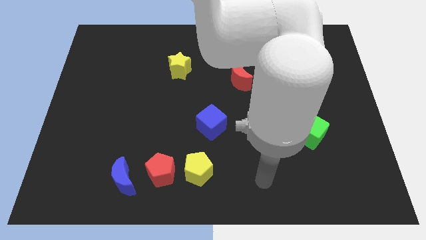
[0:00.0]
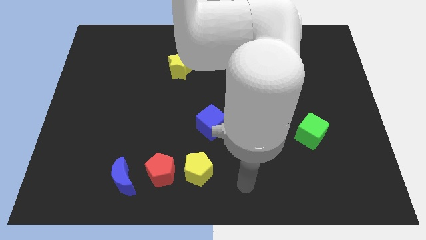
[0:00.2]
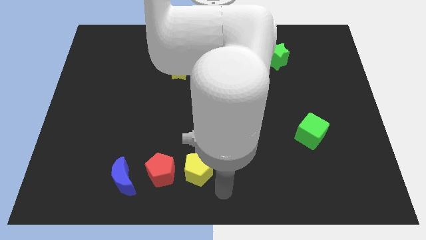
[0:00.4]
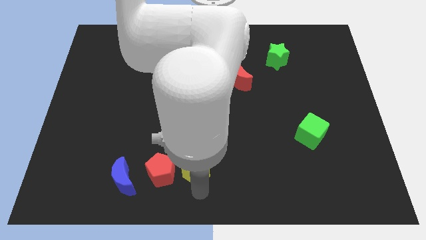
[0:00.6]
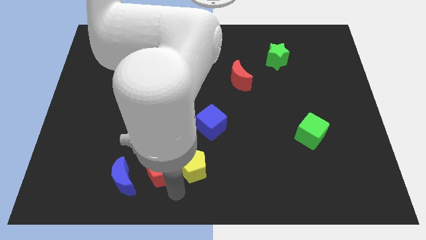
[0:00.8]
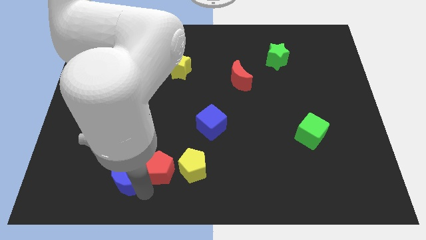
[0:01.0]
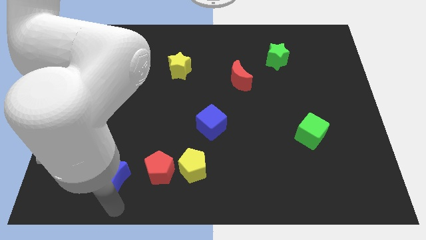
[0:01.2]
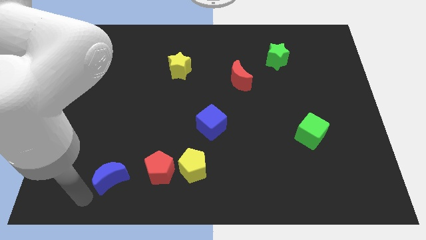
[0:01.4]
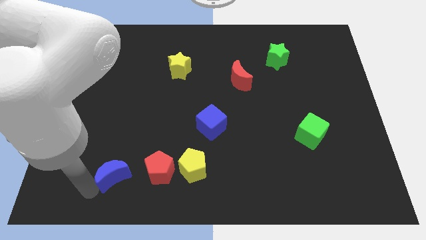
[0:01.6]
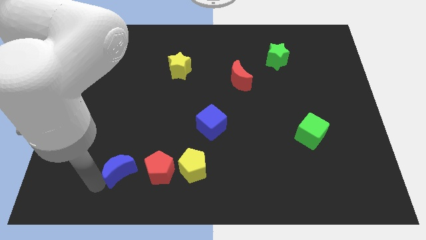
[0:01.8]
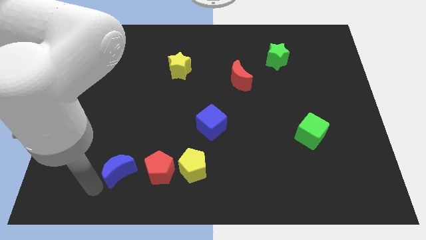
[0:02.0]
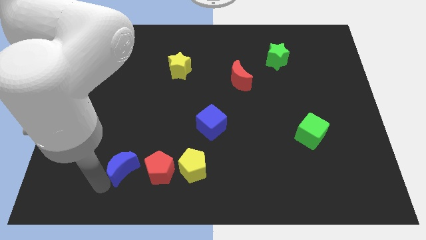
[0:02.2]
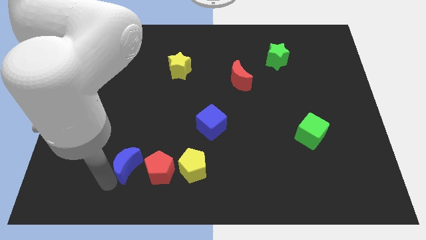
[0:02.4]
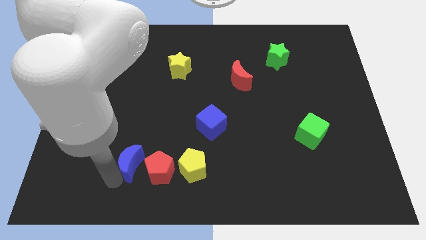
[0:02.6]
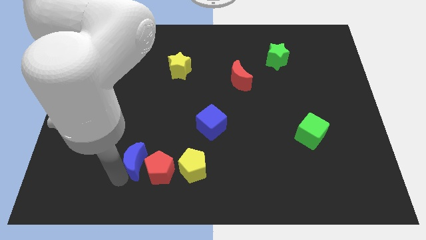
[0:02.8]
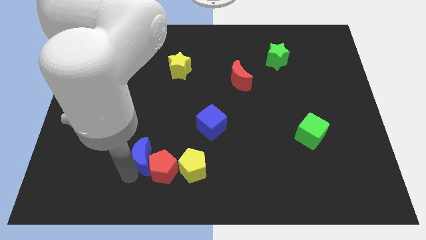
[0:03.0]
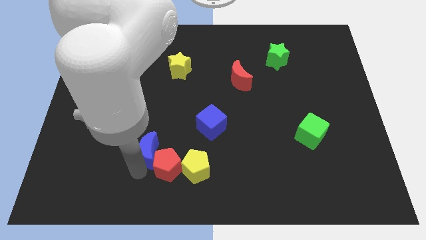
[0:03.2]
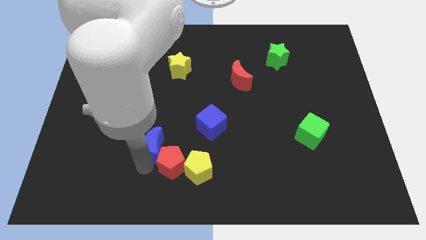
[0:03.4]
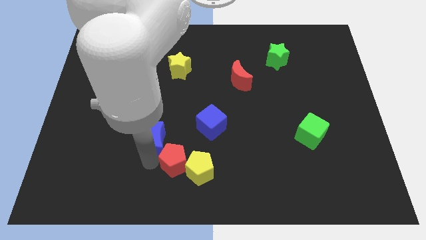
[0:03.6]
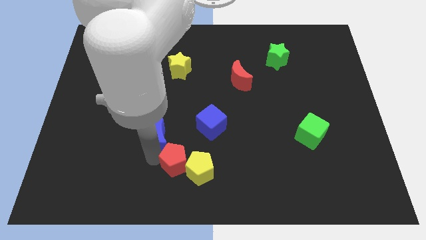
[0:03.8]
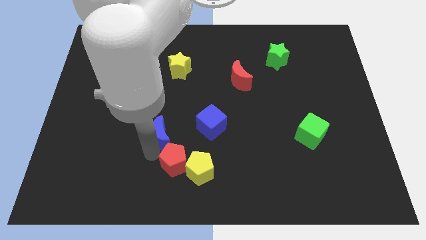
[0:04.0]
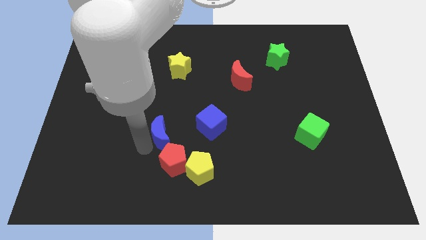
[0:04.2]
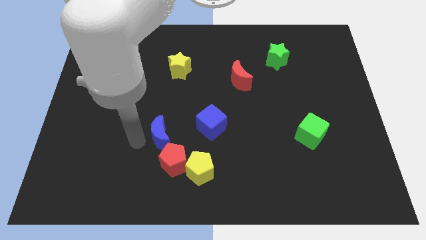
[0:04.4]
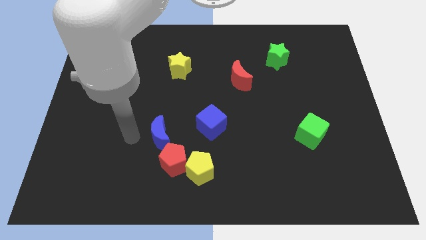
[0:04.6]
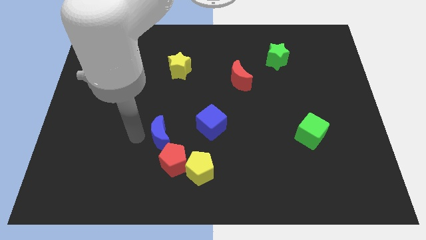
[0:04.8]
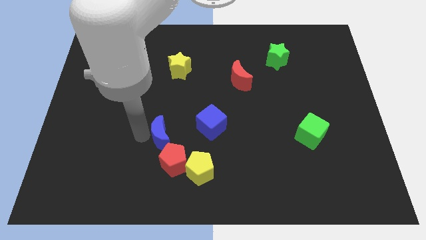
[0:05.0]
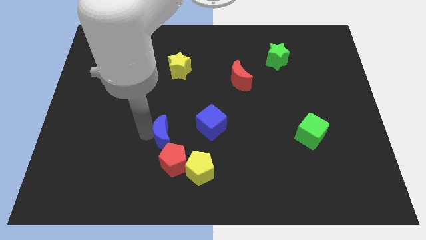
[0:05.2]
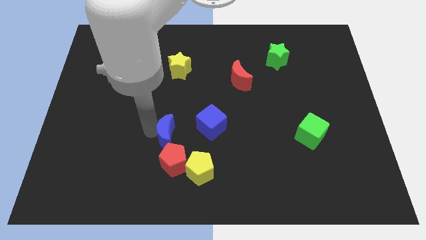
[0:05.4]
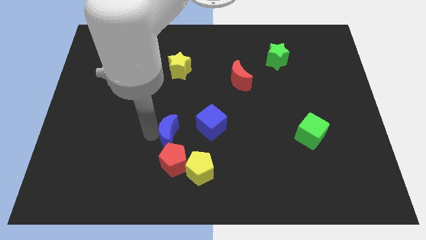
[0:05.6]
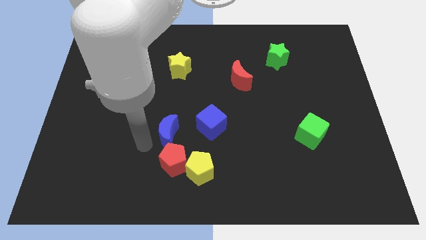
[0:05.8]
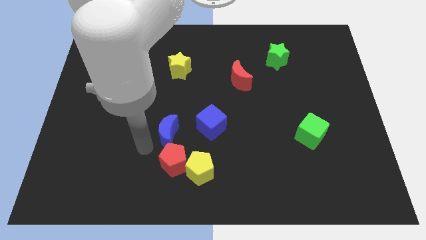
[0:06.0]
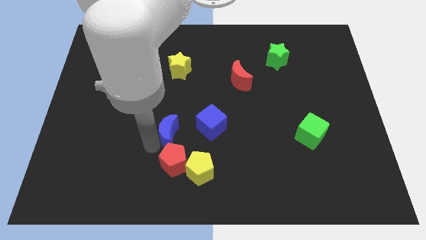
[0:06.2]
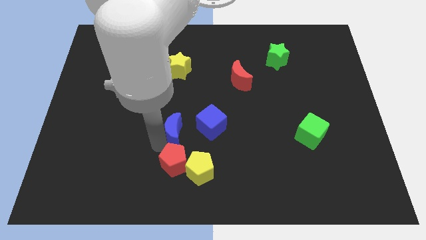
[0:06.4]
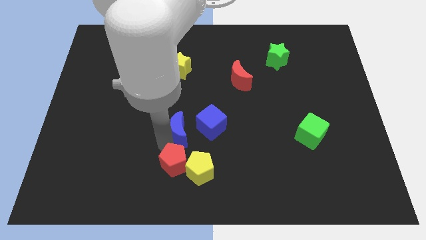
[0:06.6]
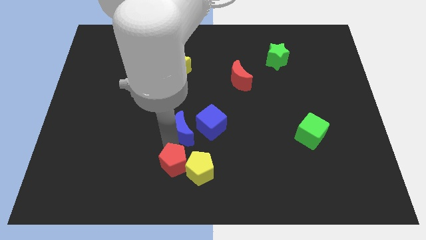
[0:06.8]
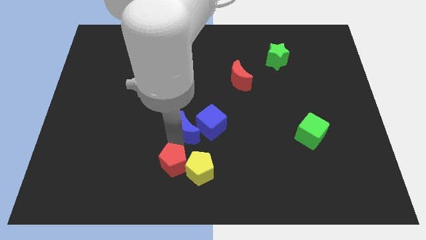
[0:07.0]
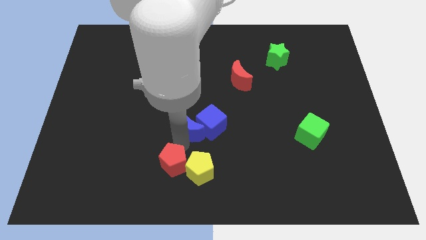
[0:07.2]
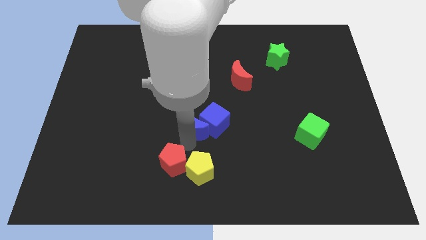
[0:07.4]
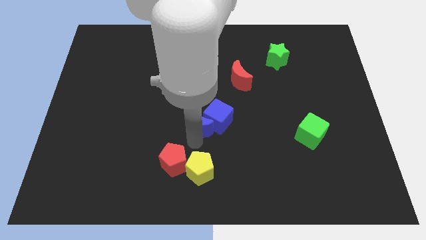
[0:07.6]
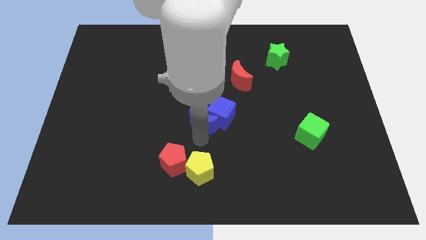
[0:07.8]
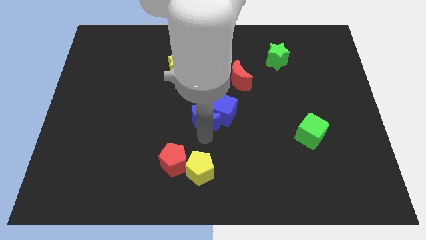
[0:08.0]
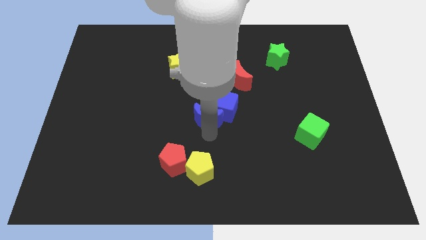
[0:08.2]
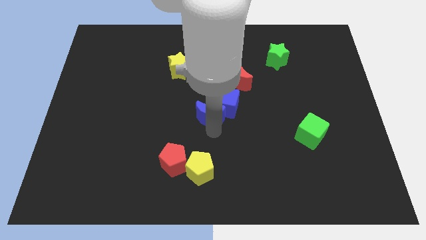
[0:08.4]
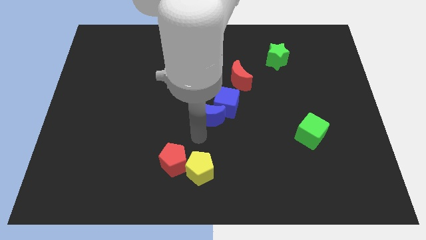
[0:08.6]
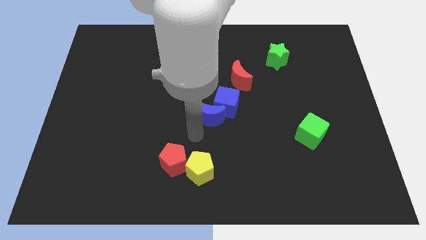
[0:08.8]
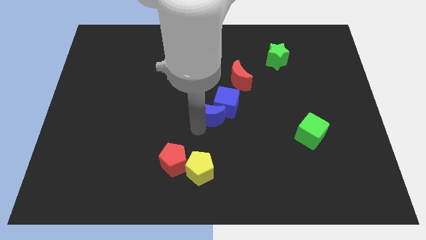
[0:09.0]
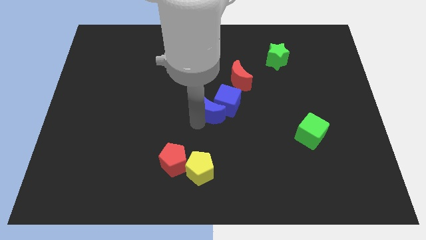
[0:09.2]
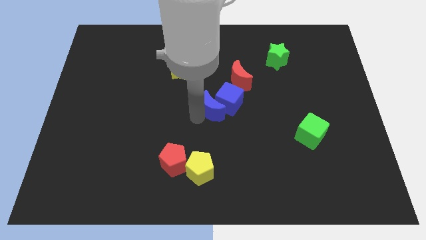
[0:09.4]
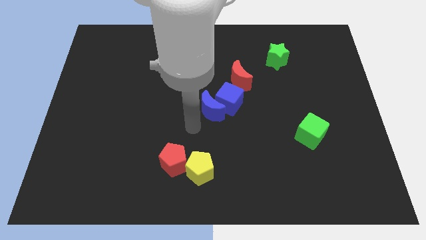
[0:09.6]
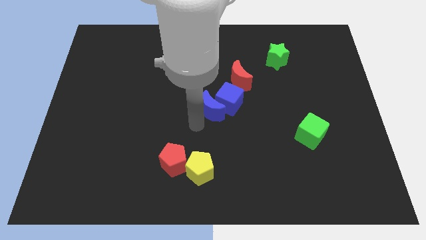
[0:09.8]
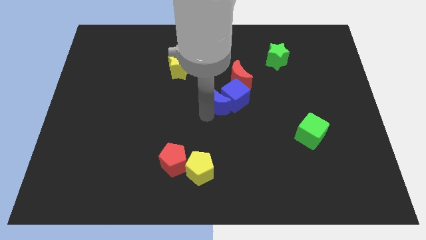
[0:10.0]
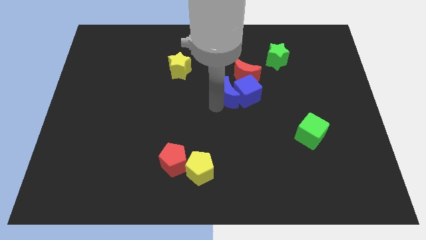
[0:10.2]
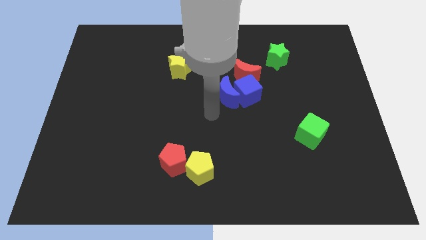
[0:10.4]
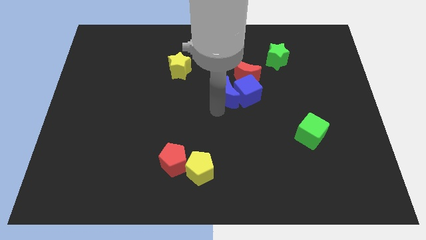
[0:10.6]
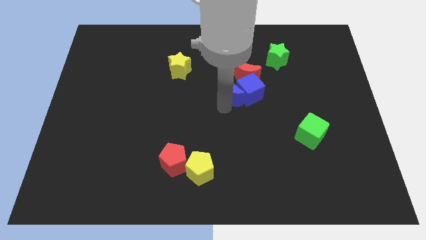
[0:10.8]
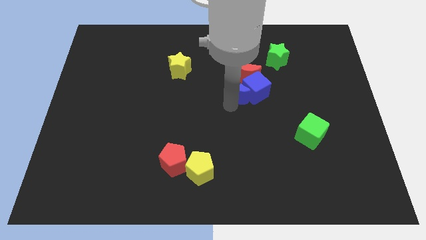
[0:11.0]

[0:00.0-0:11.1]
slide the blue moon towards the red moon

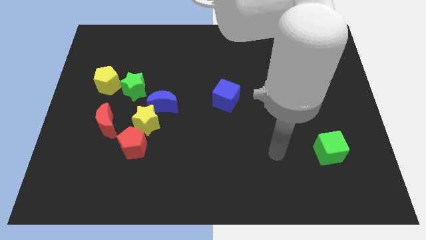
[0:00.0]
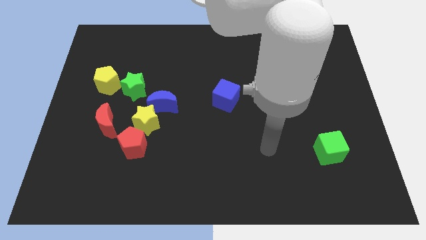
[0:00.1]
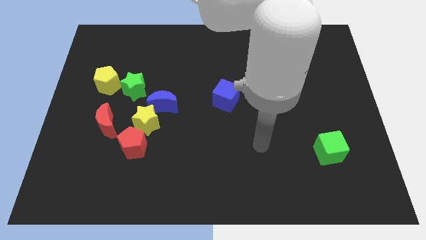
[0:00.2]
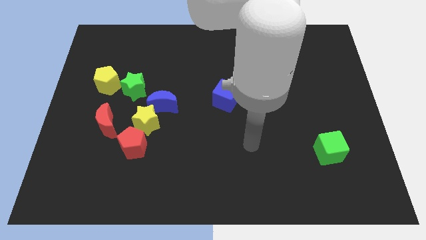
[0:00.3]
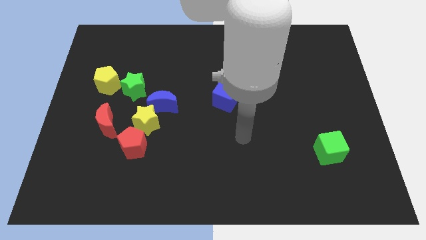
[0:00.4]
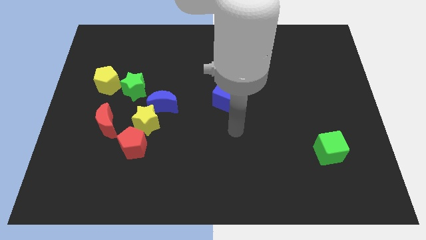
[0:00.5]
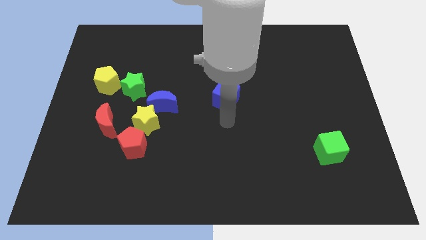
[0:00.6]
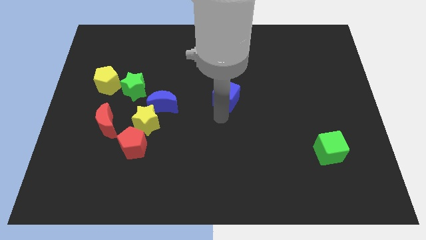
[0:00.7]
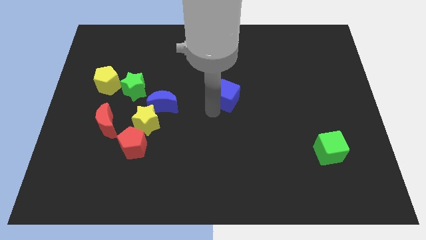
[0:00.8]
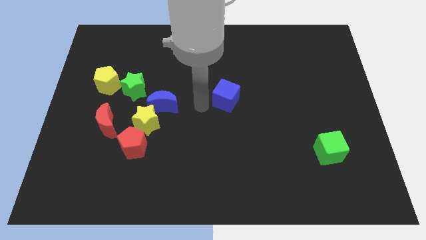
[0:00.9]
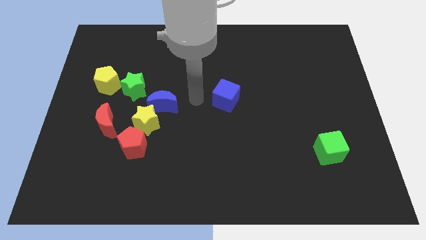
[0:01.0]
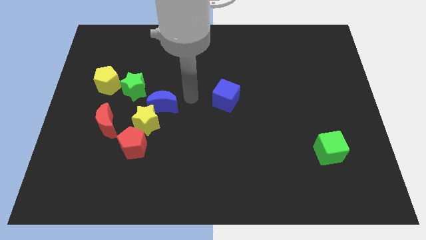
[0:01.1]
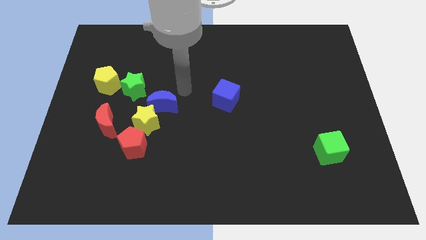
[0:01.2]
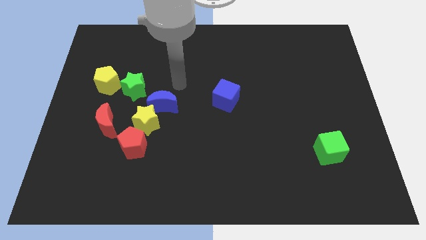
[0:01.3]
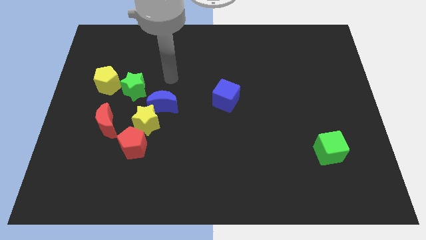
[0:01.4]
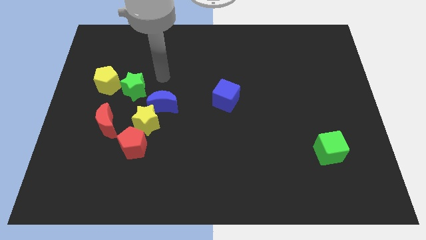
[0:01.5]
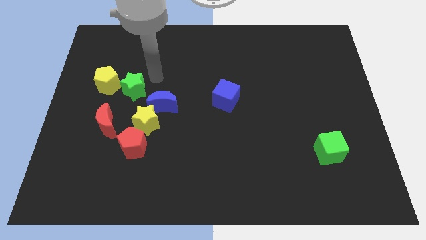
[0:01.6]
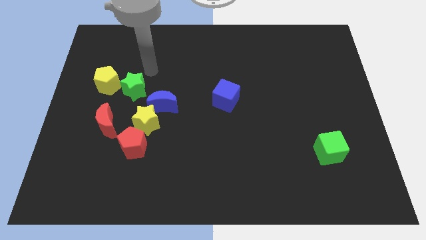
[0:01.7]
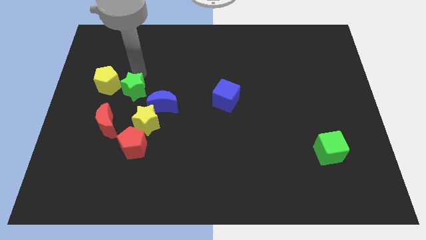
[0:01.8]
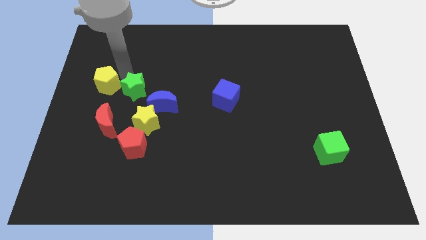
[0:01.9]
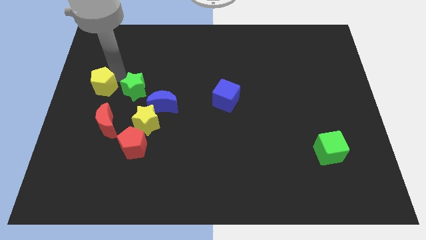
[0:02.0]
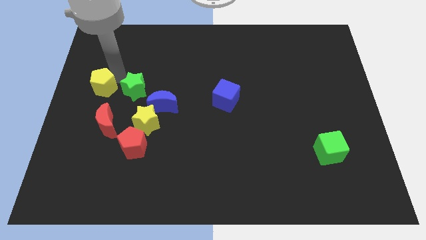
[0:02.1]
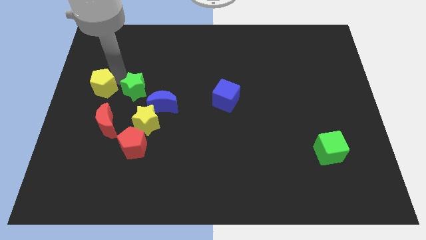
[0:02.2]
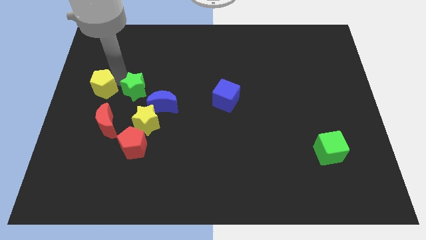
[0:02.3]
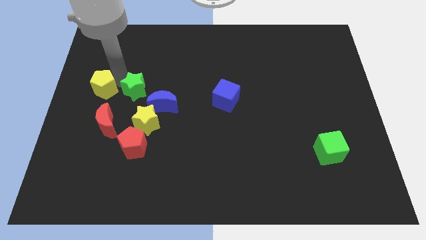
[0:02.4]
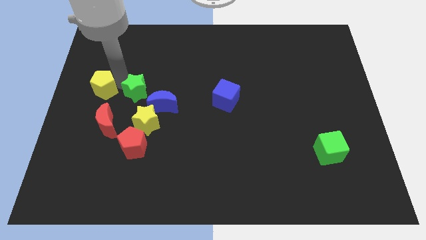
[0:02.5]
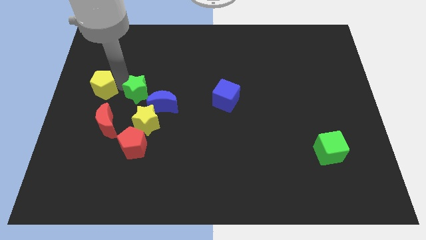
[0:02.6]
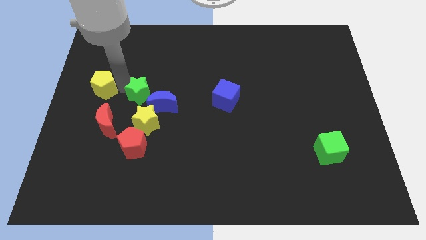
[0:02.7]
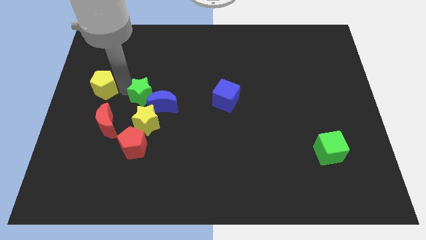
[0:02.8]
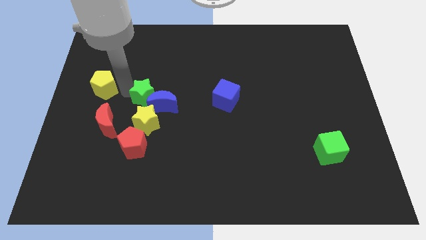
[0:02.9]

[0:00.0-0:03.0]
put the green star next to the blue moon
